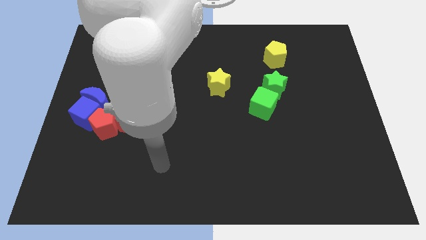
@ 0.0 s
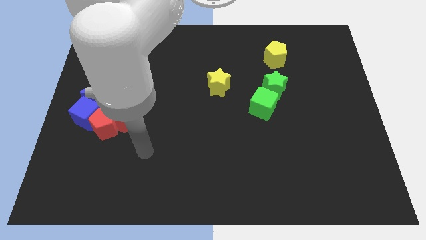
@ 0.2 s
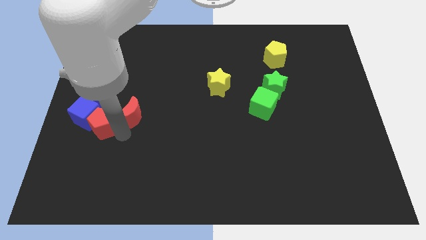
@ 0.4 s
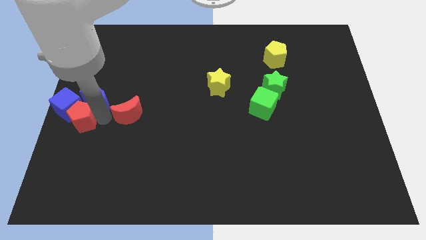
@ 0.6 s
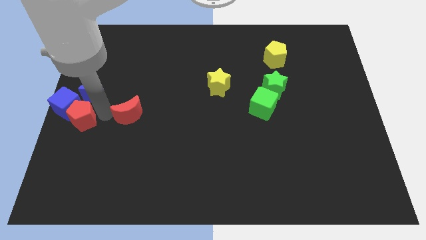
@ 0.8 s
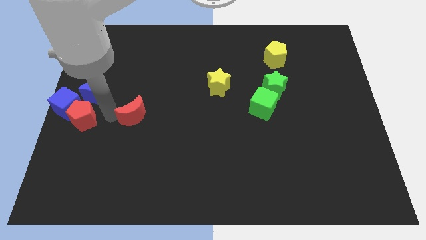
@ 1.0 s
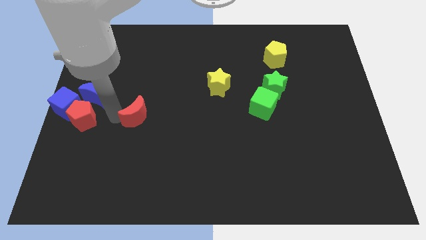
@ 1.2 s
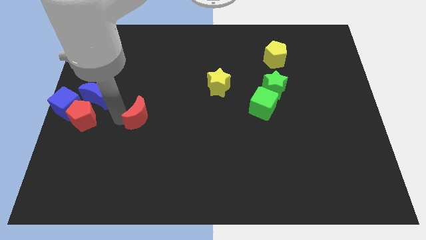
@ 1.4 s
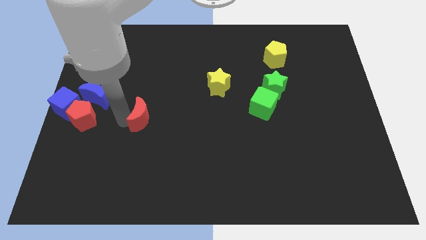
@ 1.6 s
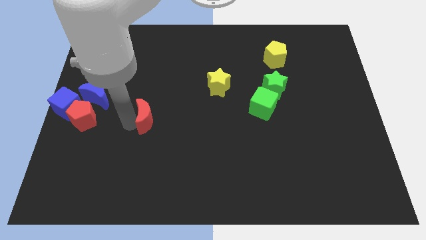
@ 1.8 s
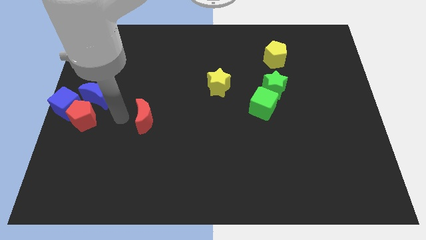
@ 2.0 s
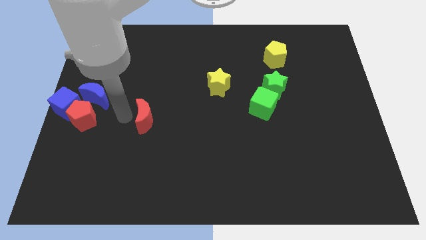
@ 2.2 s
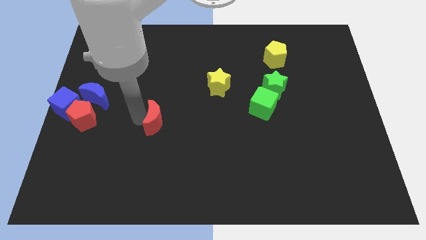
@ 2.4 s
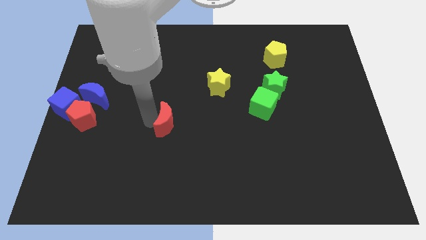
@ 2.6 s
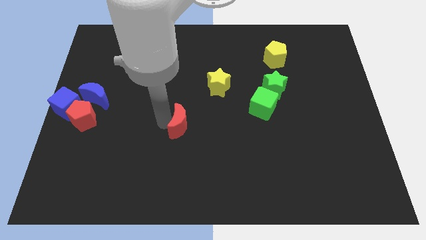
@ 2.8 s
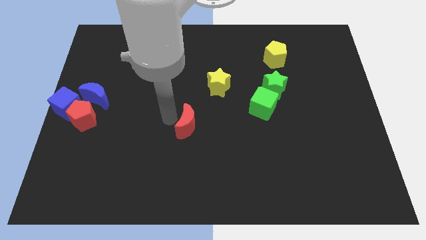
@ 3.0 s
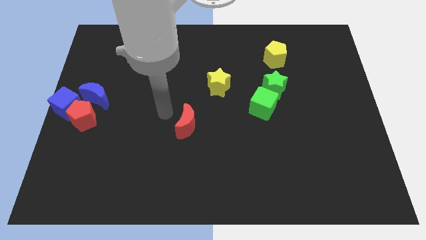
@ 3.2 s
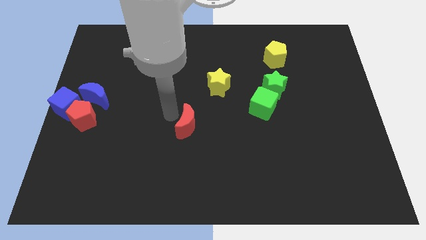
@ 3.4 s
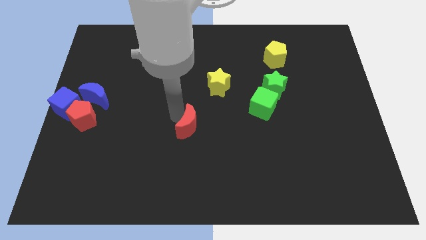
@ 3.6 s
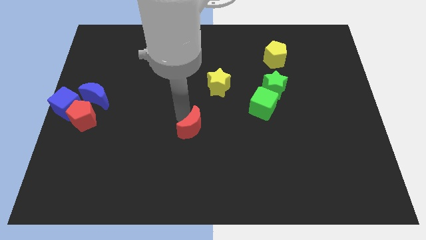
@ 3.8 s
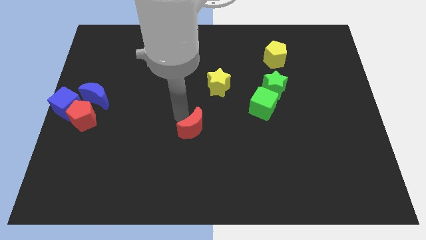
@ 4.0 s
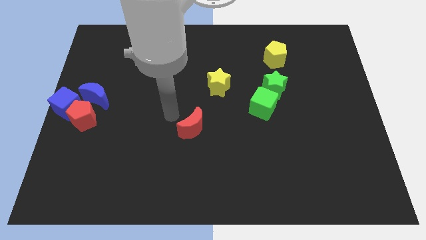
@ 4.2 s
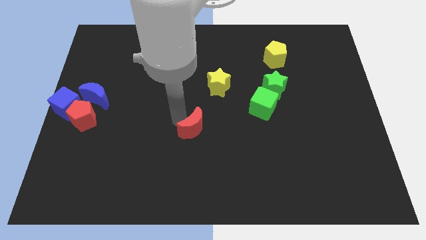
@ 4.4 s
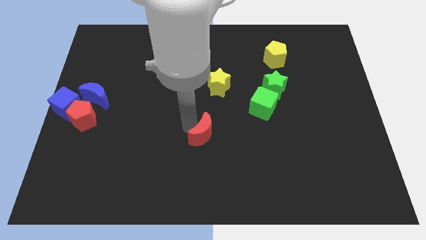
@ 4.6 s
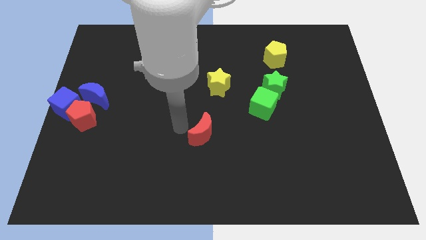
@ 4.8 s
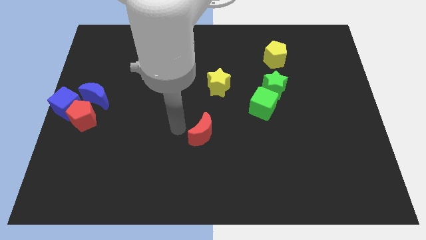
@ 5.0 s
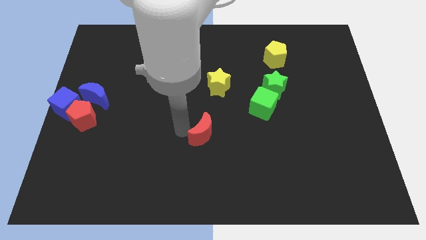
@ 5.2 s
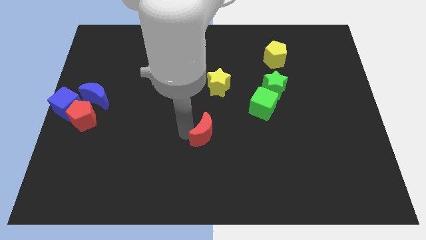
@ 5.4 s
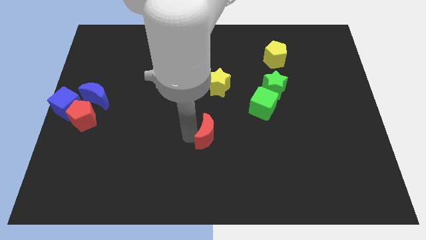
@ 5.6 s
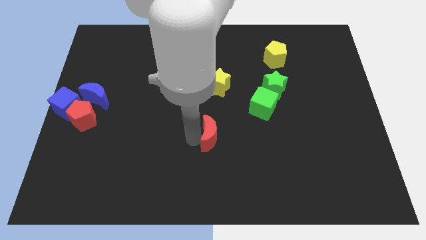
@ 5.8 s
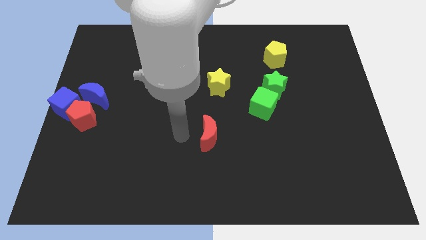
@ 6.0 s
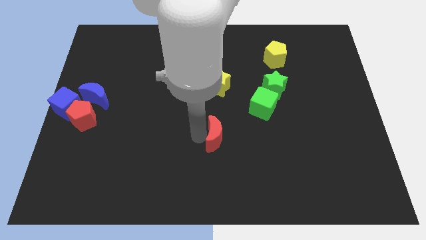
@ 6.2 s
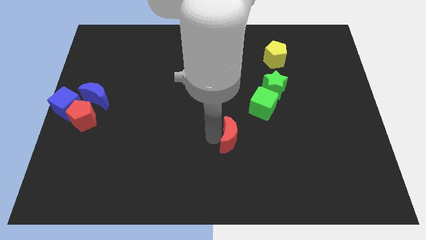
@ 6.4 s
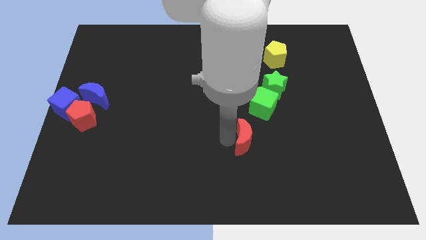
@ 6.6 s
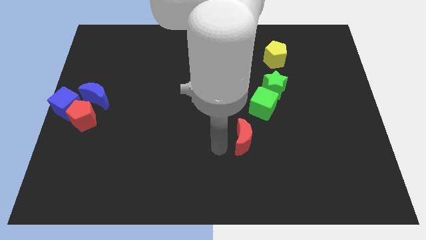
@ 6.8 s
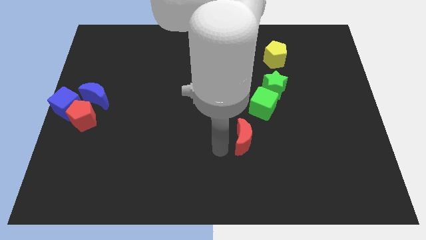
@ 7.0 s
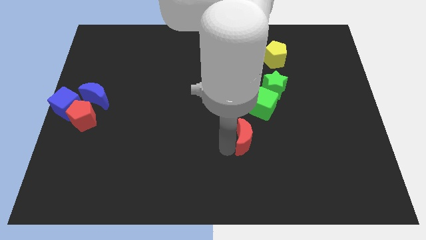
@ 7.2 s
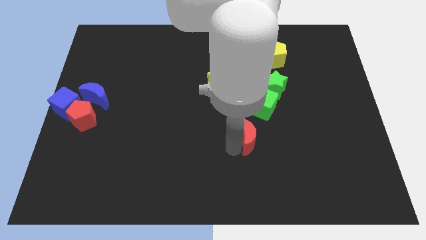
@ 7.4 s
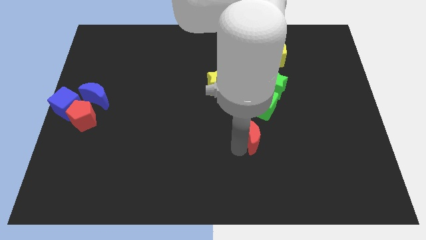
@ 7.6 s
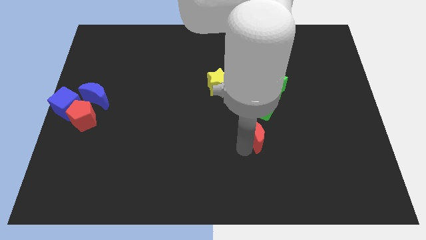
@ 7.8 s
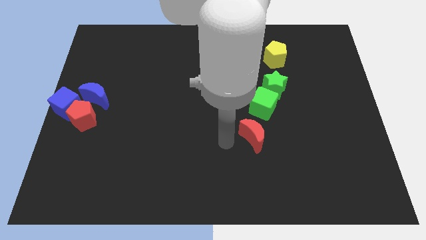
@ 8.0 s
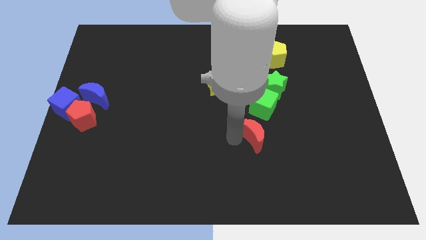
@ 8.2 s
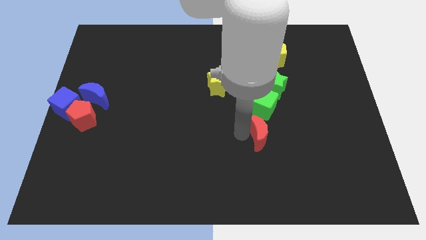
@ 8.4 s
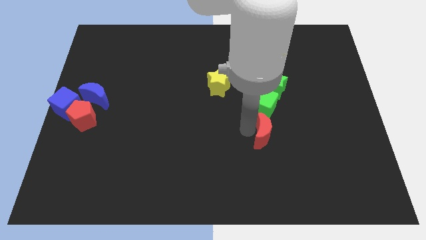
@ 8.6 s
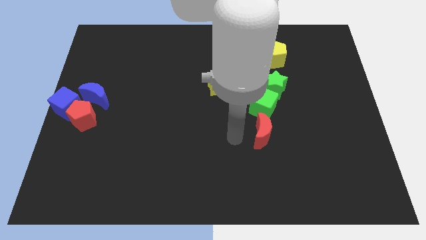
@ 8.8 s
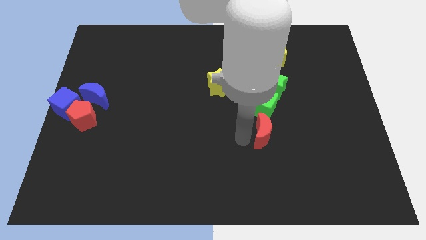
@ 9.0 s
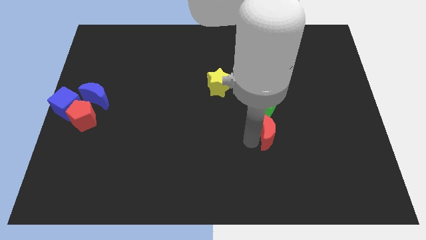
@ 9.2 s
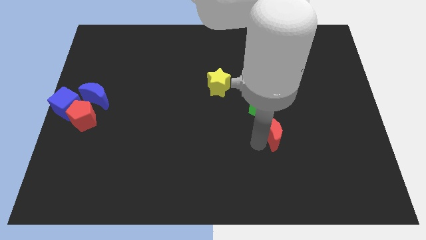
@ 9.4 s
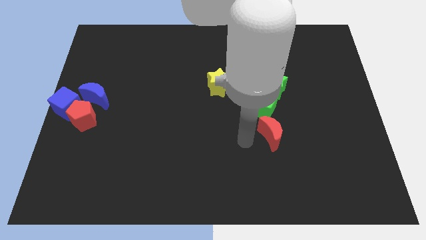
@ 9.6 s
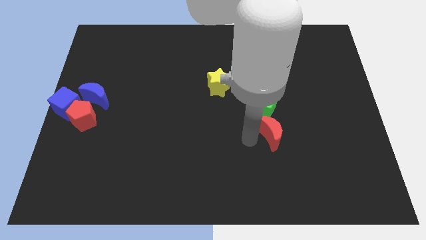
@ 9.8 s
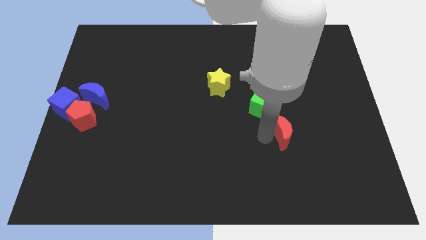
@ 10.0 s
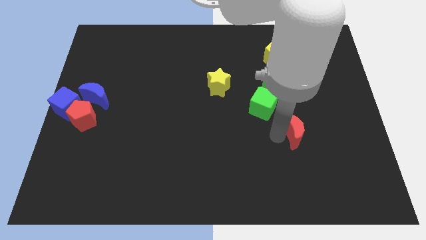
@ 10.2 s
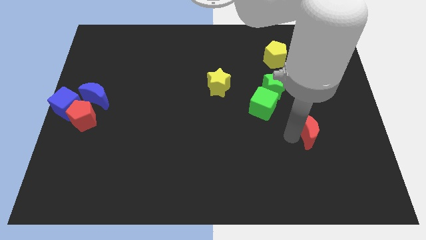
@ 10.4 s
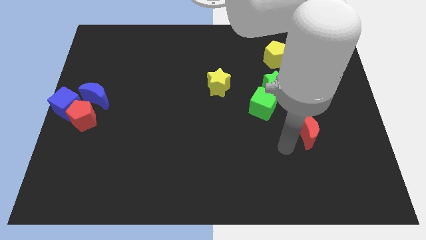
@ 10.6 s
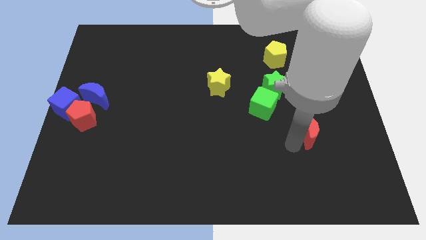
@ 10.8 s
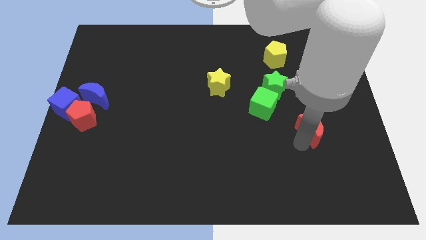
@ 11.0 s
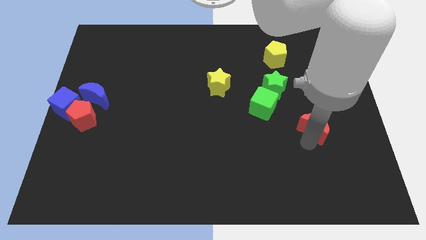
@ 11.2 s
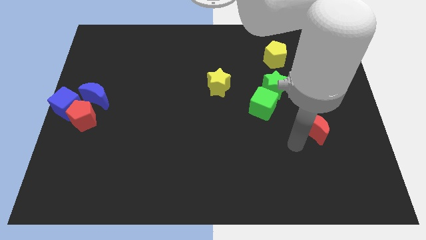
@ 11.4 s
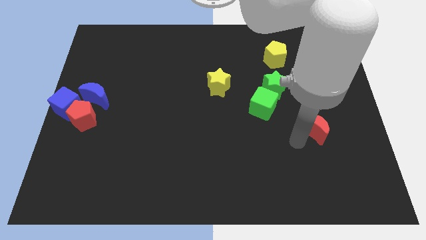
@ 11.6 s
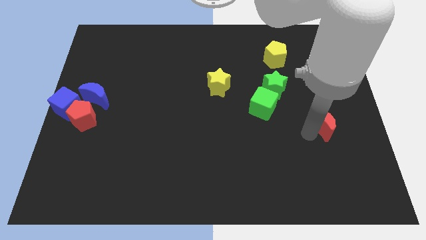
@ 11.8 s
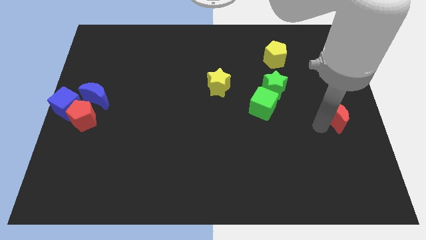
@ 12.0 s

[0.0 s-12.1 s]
move the red moon to the right side

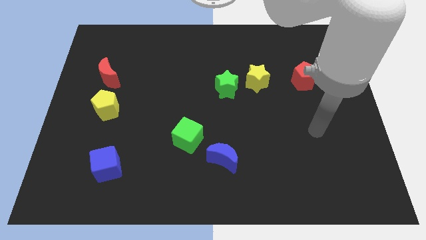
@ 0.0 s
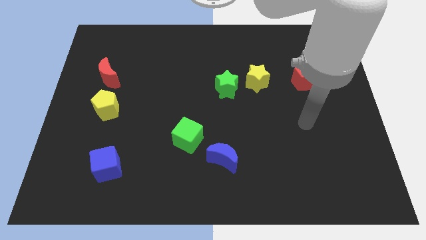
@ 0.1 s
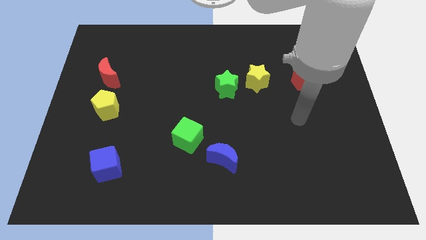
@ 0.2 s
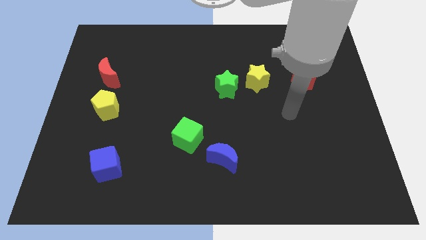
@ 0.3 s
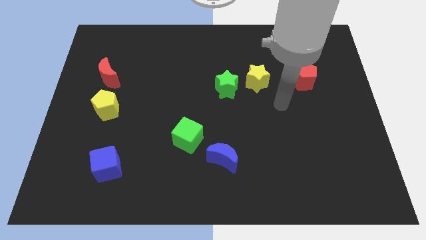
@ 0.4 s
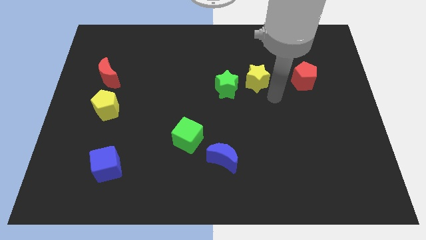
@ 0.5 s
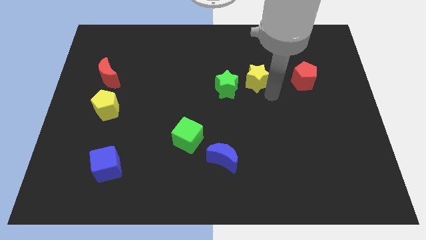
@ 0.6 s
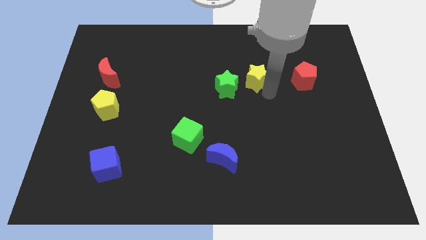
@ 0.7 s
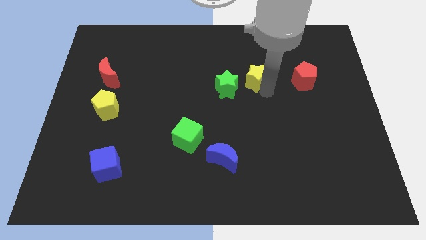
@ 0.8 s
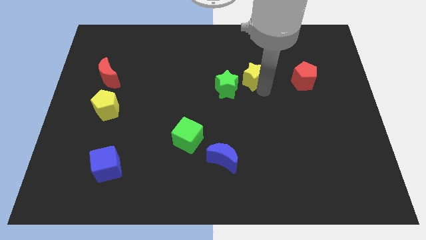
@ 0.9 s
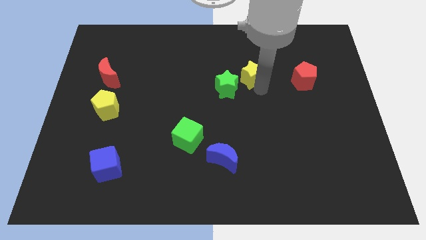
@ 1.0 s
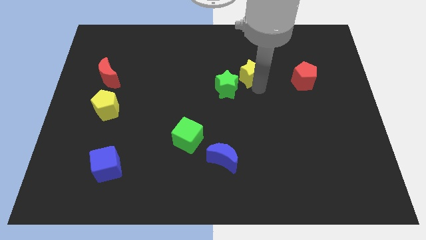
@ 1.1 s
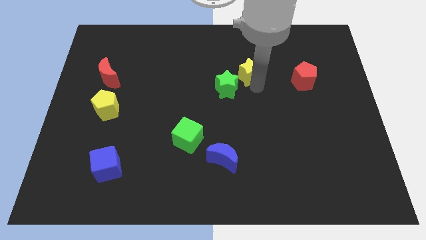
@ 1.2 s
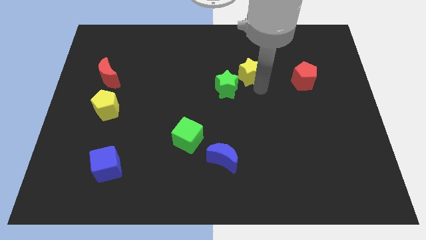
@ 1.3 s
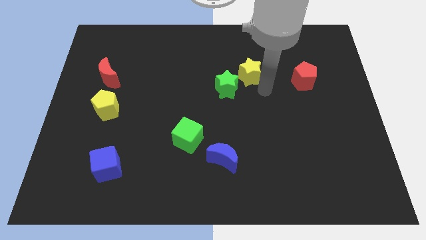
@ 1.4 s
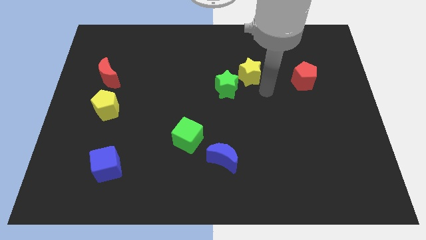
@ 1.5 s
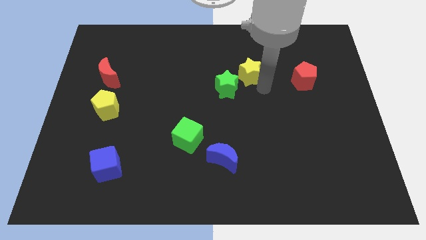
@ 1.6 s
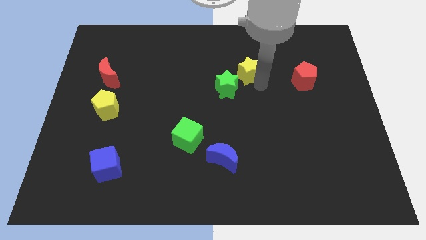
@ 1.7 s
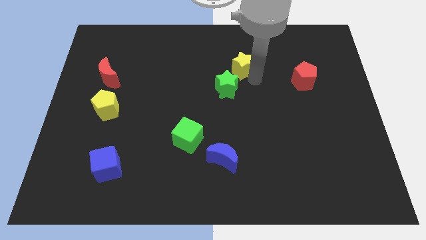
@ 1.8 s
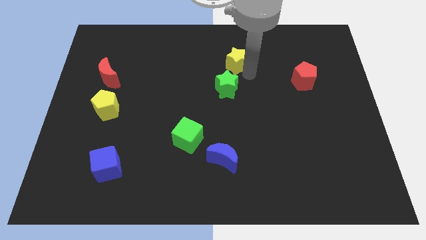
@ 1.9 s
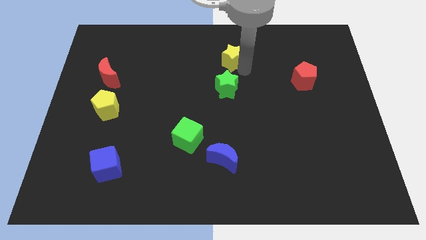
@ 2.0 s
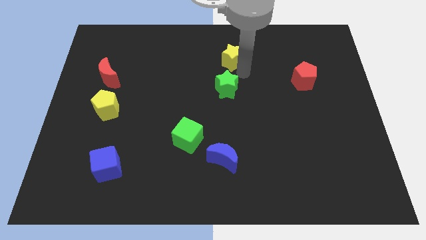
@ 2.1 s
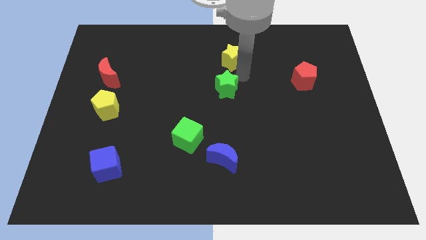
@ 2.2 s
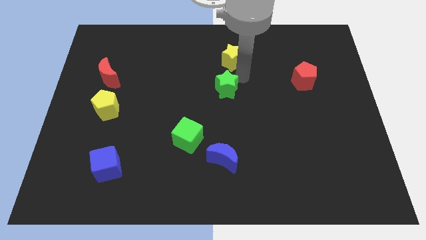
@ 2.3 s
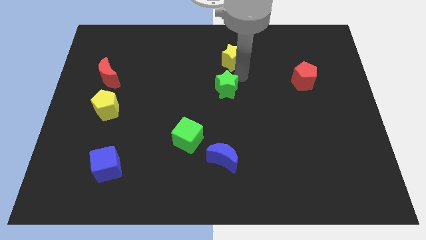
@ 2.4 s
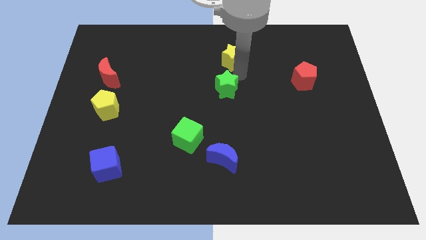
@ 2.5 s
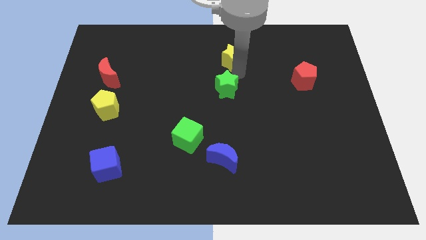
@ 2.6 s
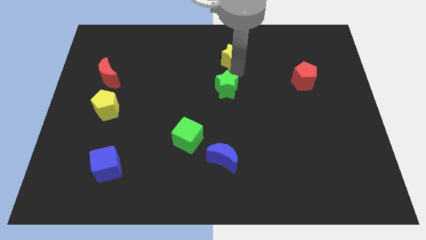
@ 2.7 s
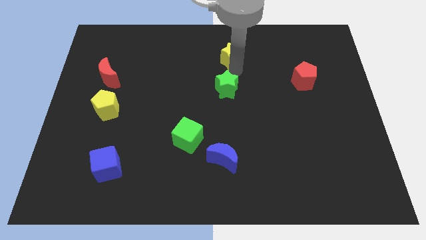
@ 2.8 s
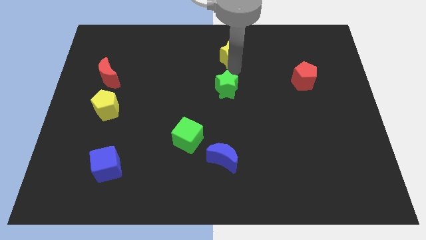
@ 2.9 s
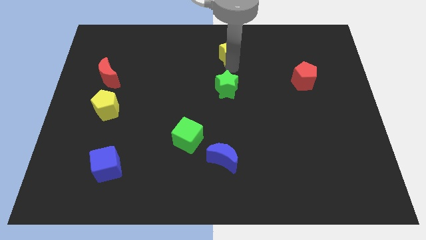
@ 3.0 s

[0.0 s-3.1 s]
move the yellow star to the top side
